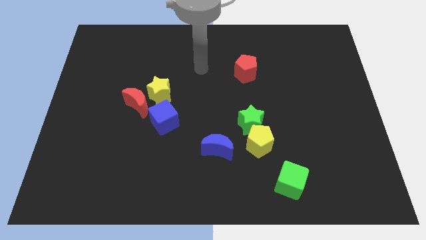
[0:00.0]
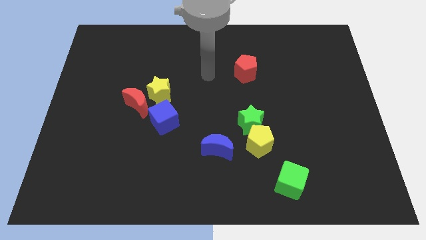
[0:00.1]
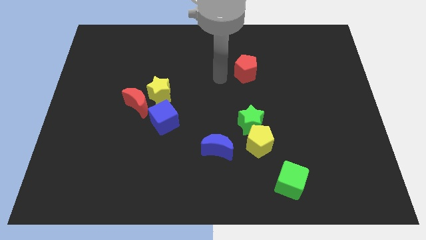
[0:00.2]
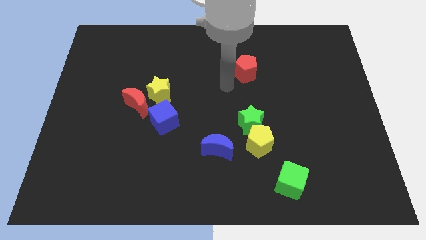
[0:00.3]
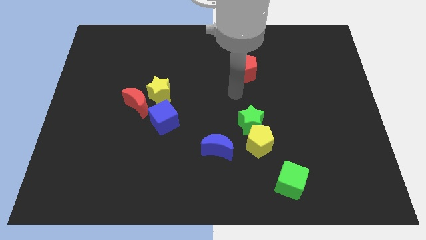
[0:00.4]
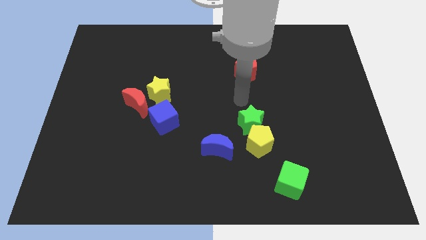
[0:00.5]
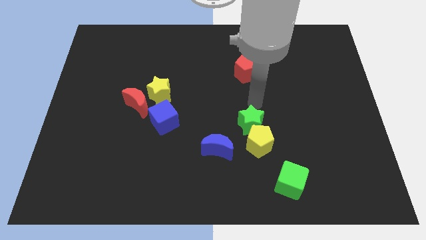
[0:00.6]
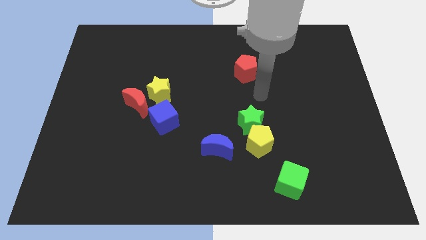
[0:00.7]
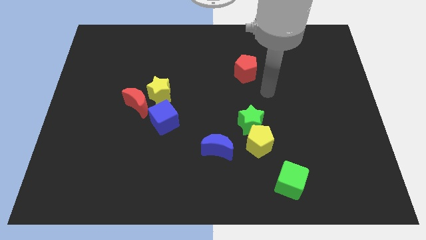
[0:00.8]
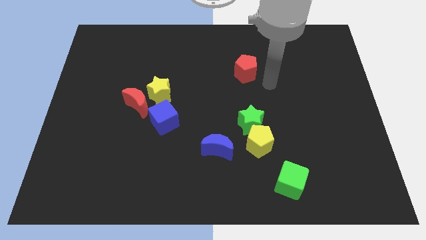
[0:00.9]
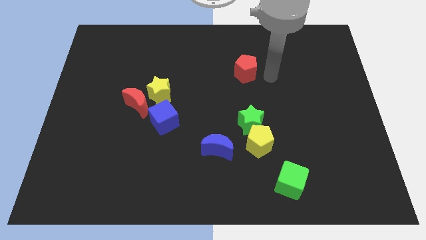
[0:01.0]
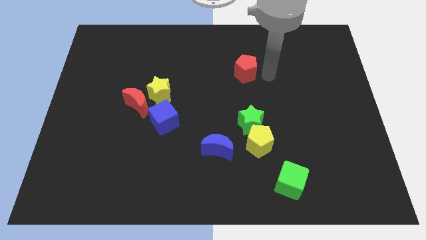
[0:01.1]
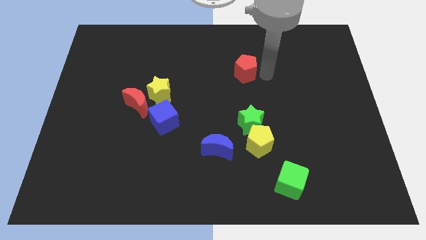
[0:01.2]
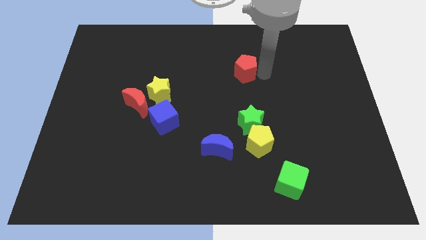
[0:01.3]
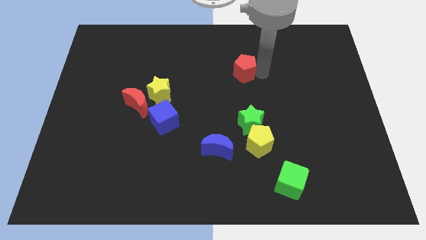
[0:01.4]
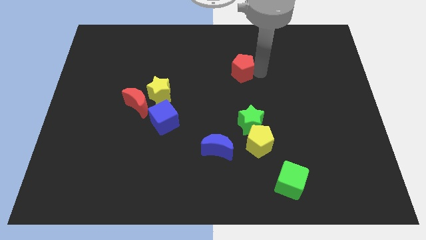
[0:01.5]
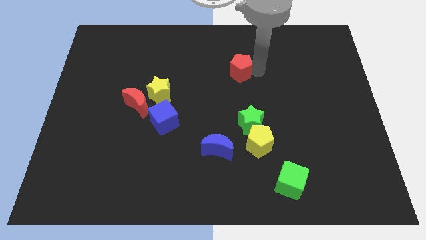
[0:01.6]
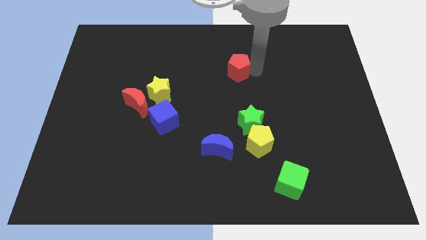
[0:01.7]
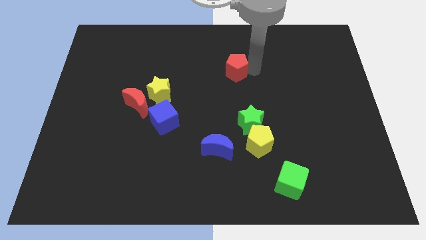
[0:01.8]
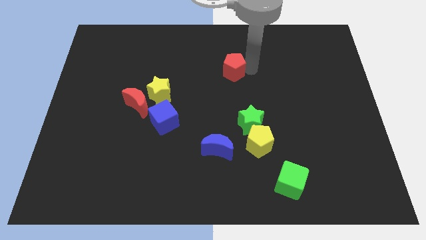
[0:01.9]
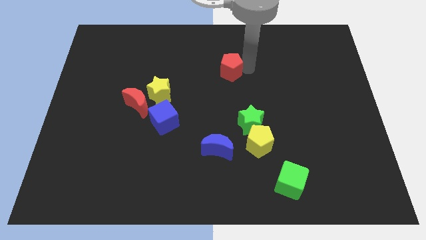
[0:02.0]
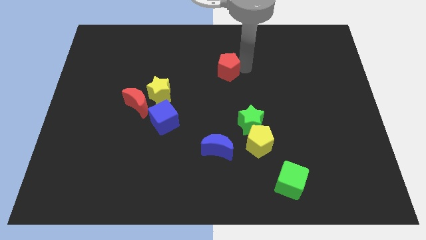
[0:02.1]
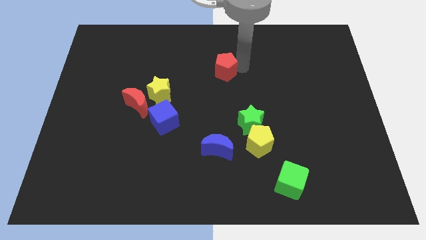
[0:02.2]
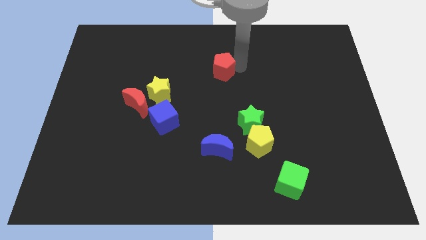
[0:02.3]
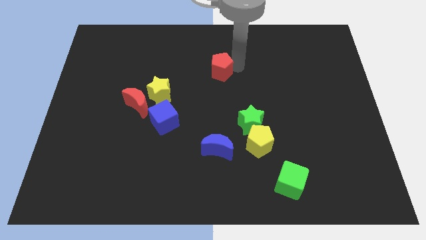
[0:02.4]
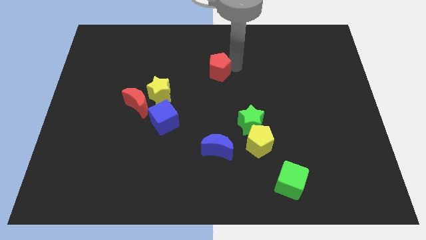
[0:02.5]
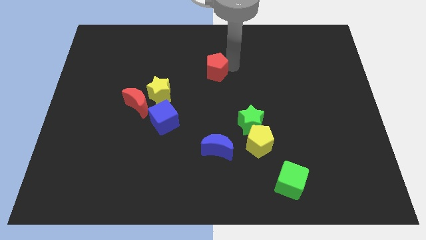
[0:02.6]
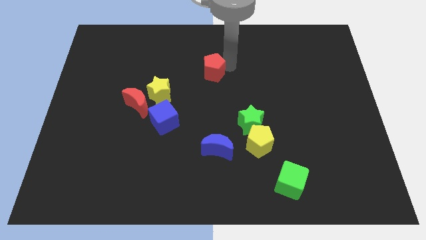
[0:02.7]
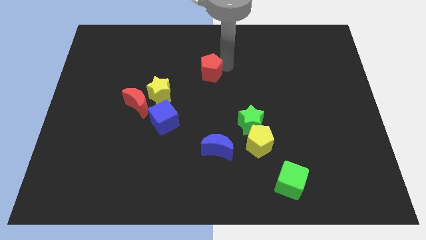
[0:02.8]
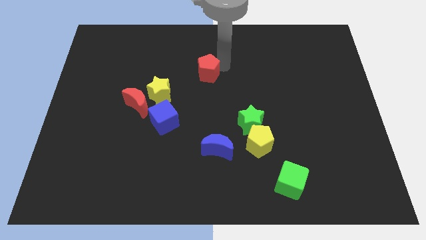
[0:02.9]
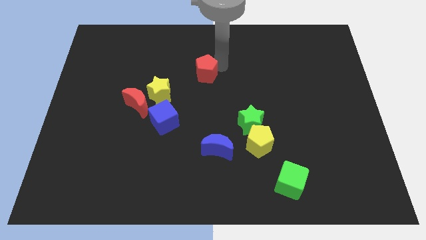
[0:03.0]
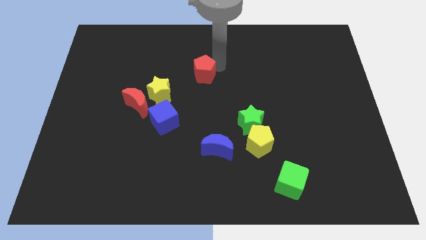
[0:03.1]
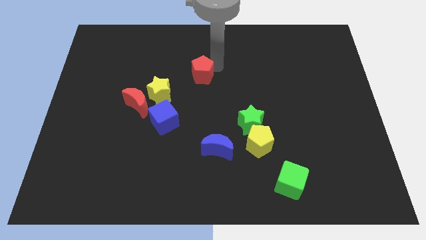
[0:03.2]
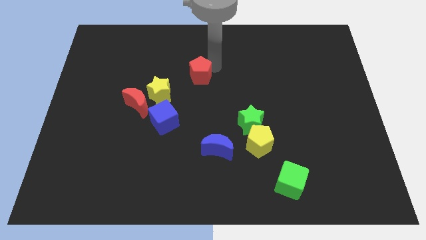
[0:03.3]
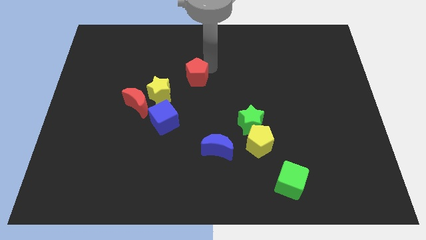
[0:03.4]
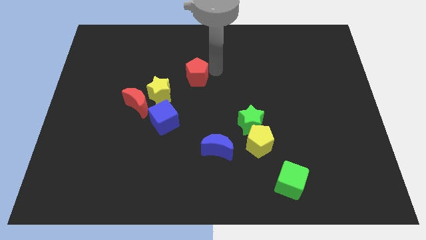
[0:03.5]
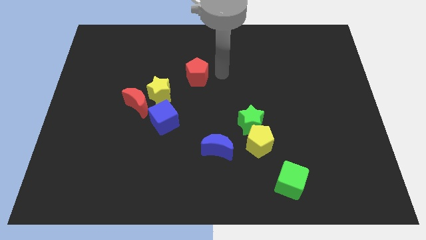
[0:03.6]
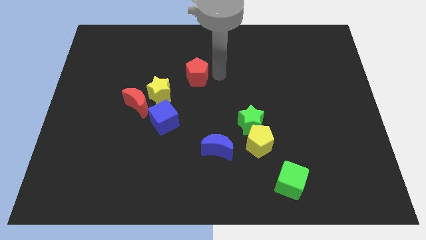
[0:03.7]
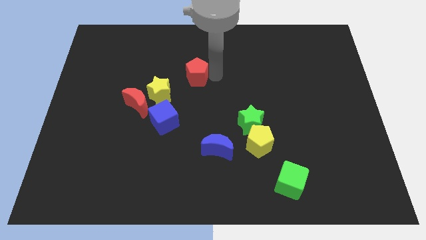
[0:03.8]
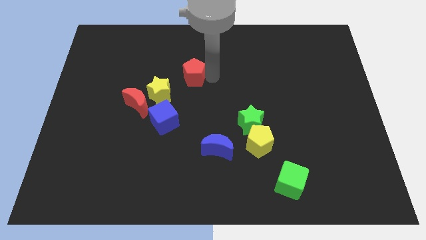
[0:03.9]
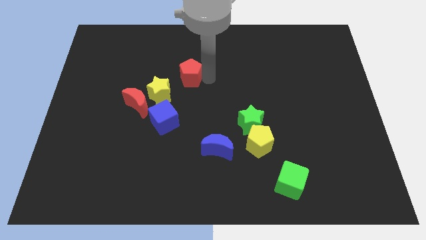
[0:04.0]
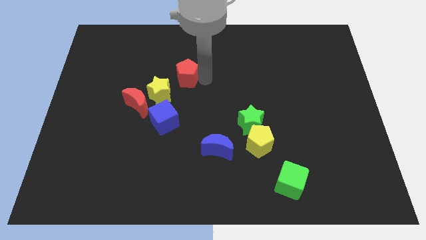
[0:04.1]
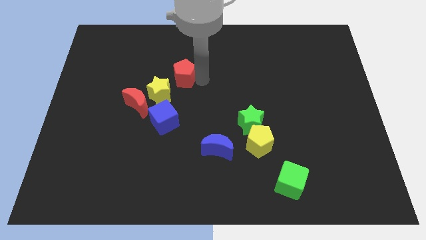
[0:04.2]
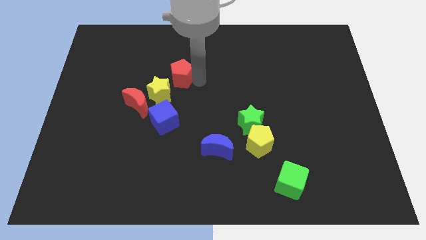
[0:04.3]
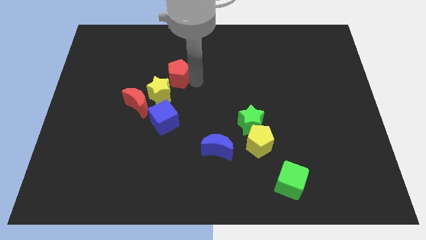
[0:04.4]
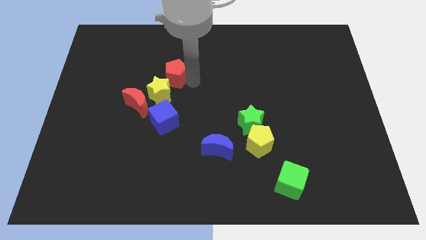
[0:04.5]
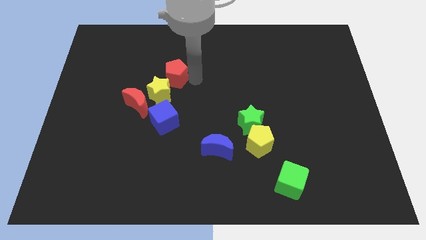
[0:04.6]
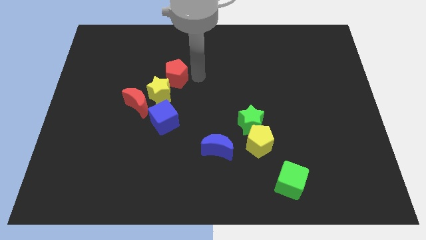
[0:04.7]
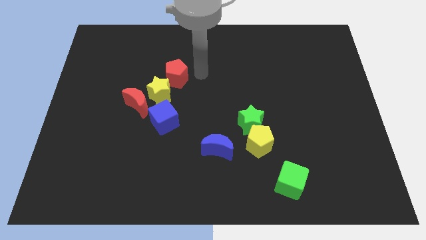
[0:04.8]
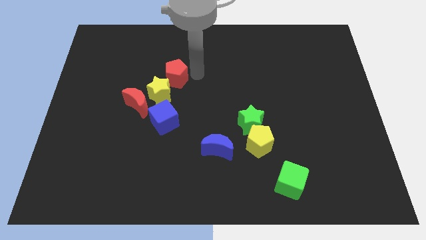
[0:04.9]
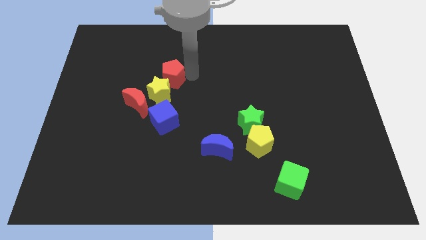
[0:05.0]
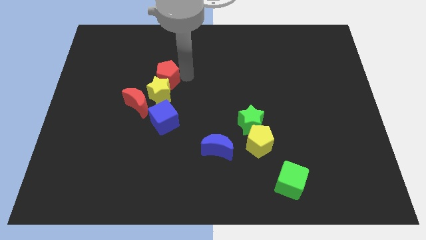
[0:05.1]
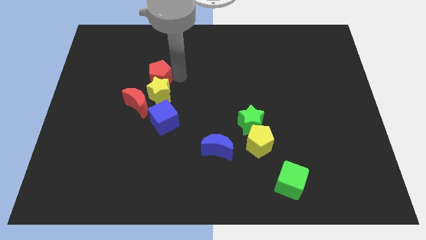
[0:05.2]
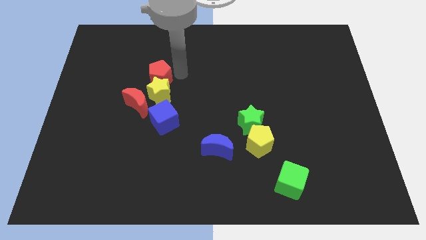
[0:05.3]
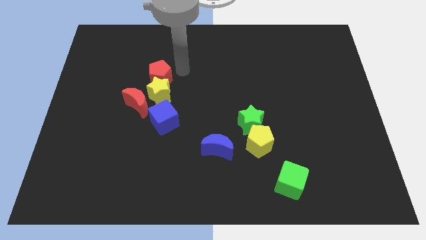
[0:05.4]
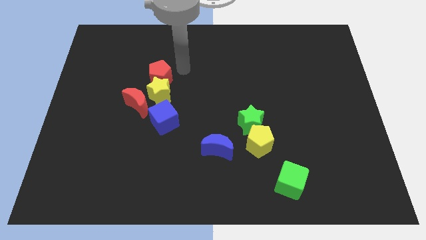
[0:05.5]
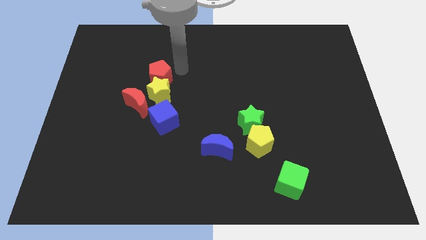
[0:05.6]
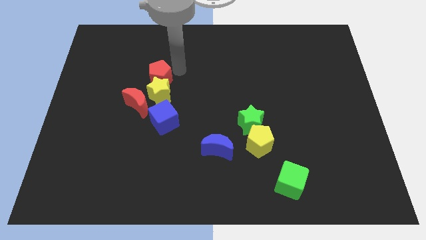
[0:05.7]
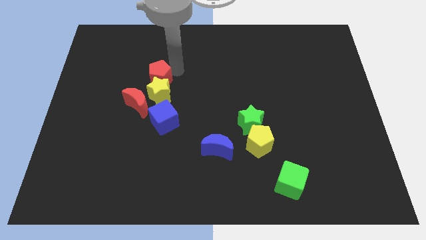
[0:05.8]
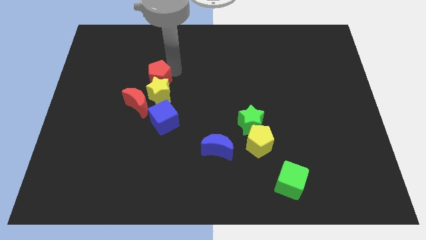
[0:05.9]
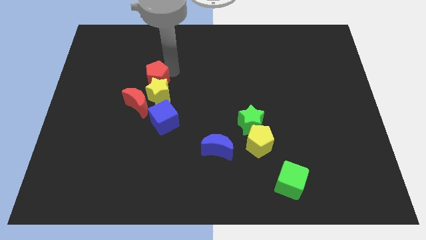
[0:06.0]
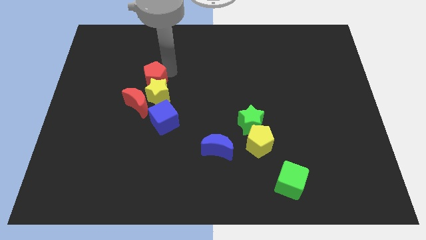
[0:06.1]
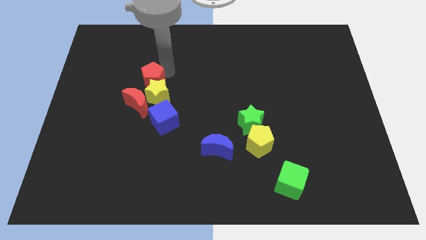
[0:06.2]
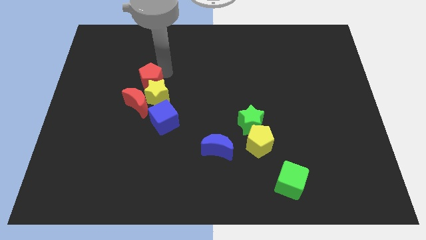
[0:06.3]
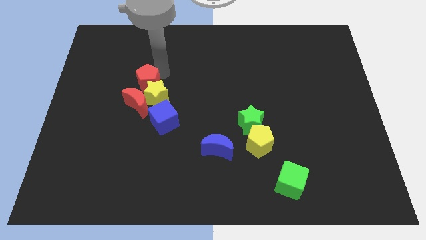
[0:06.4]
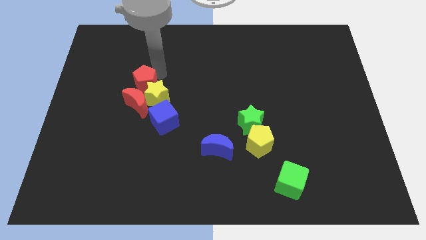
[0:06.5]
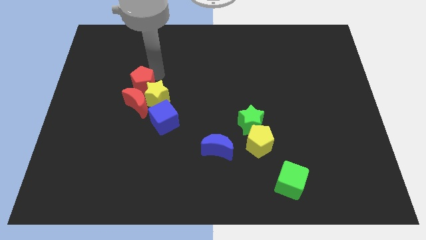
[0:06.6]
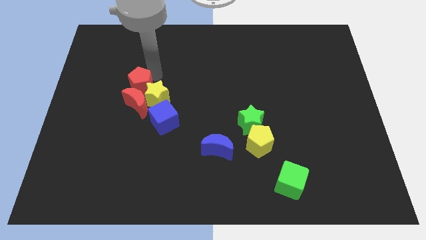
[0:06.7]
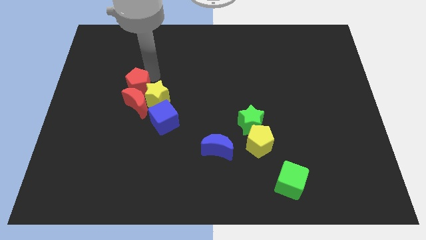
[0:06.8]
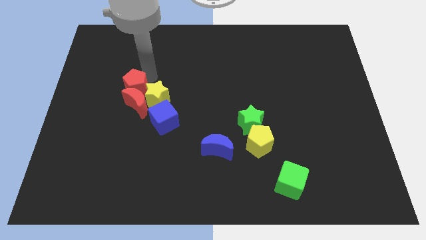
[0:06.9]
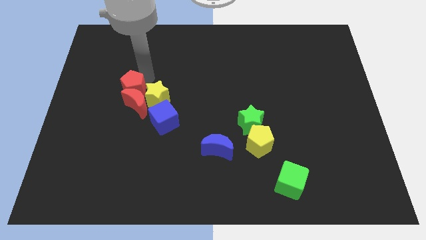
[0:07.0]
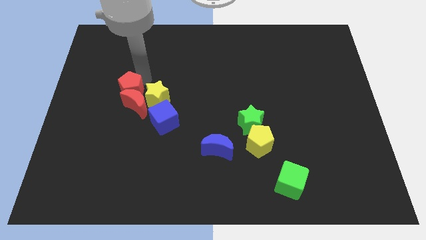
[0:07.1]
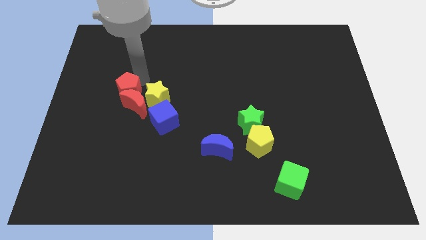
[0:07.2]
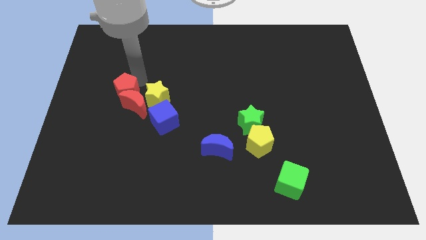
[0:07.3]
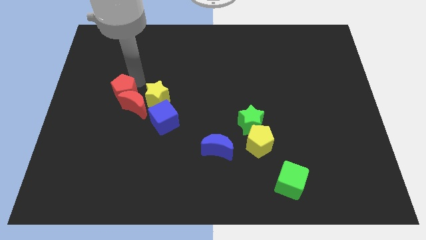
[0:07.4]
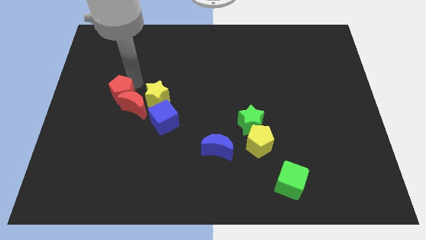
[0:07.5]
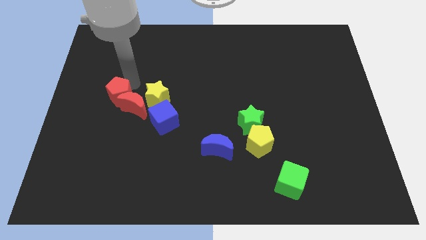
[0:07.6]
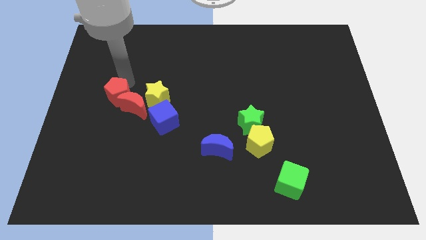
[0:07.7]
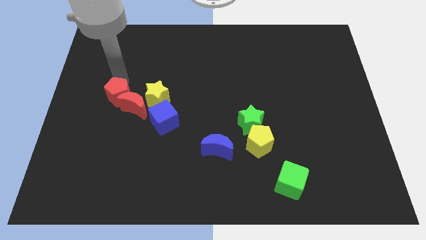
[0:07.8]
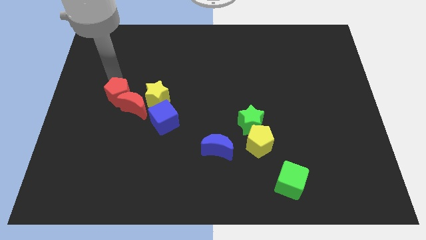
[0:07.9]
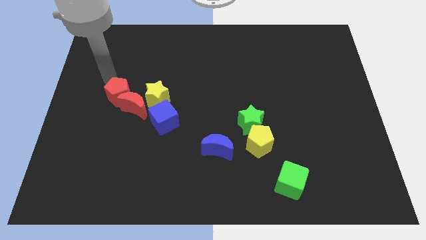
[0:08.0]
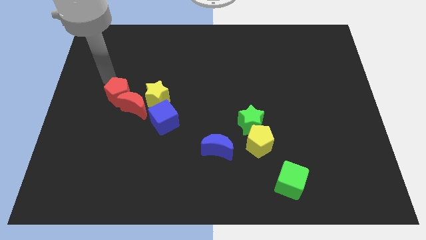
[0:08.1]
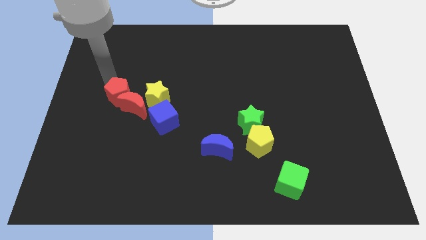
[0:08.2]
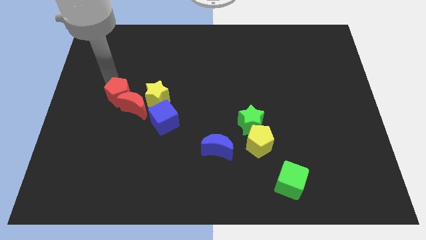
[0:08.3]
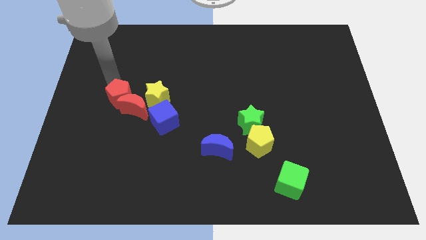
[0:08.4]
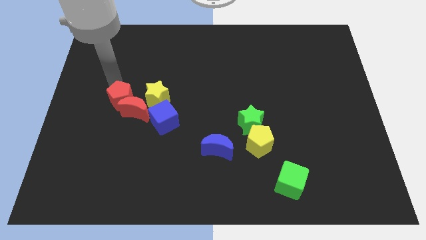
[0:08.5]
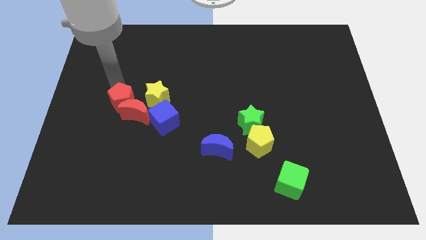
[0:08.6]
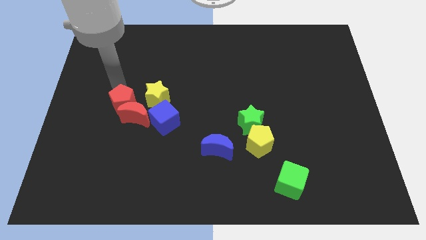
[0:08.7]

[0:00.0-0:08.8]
put the red pentagon to the bottom left side of the yellow star
